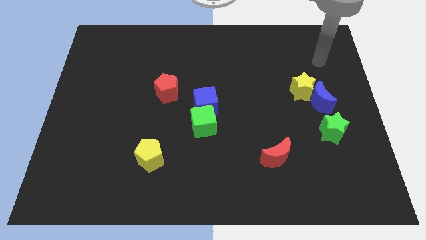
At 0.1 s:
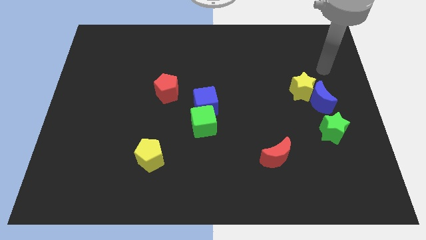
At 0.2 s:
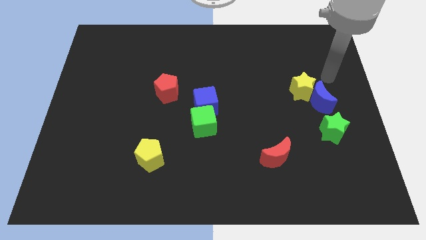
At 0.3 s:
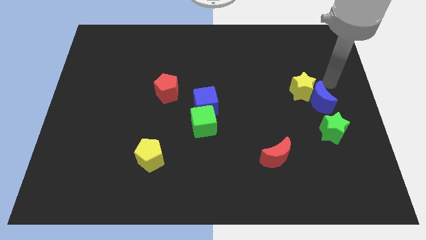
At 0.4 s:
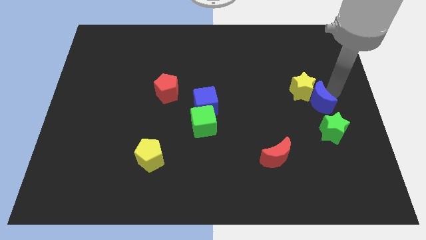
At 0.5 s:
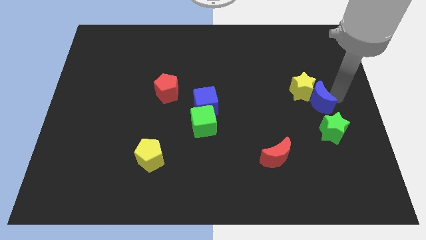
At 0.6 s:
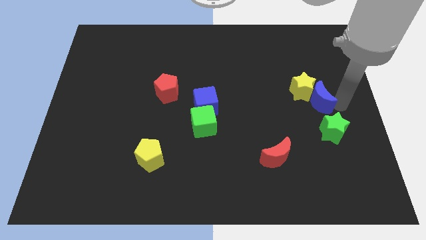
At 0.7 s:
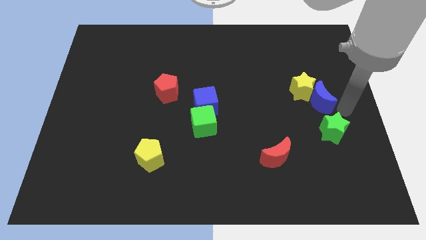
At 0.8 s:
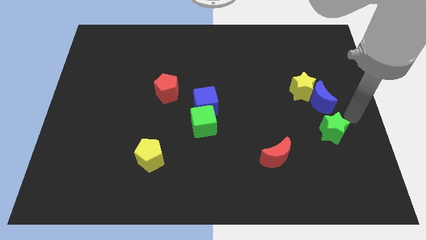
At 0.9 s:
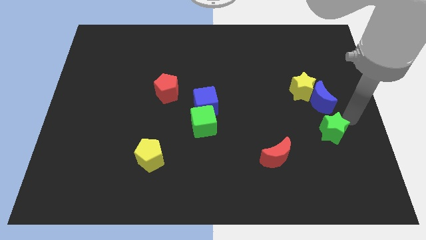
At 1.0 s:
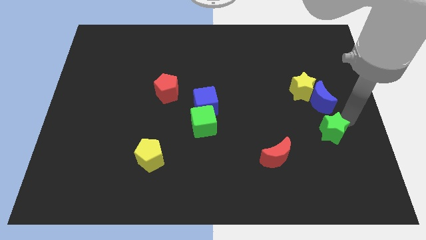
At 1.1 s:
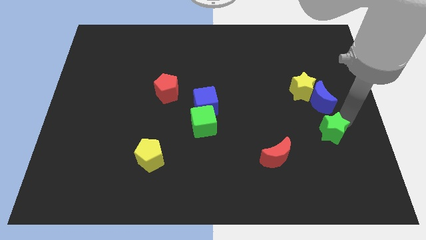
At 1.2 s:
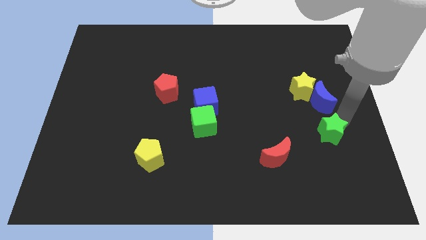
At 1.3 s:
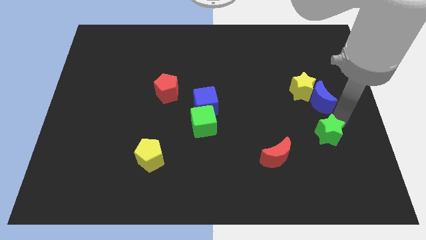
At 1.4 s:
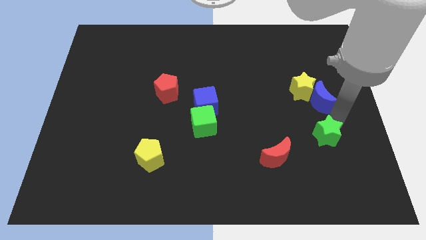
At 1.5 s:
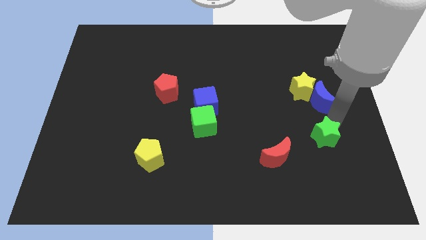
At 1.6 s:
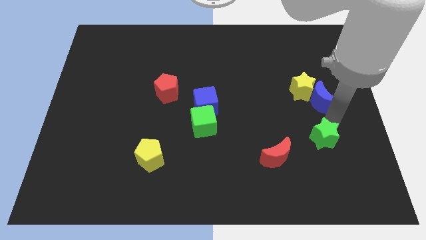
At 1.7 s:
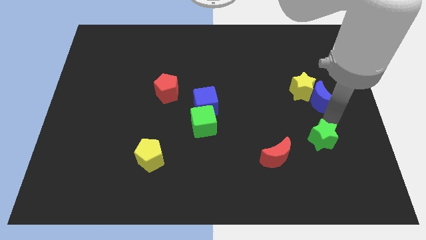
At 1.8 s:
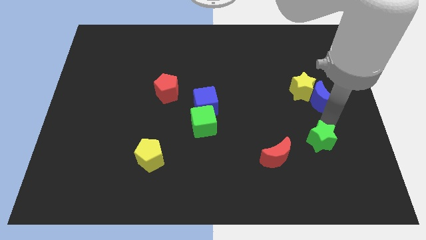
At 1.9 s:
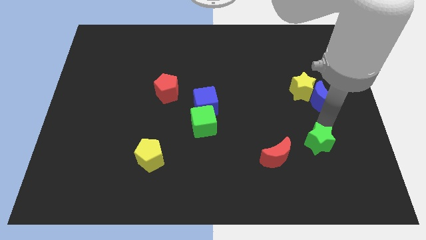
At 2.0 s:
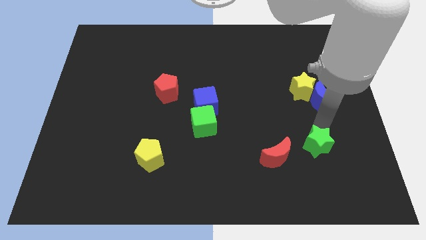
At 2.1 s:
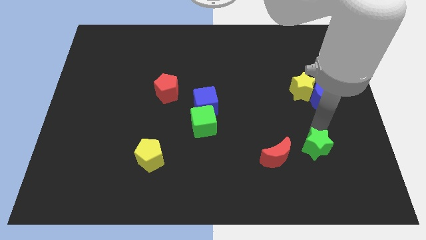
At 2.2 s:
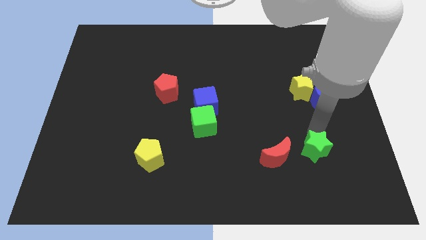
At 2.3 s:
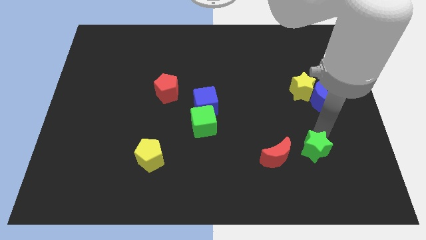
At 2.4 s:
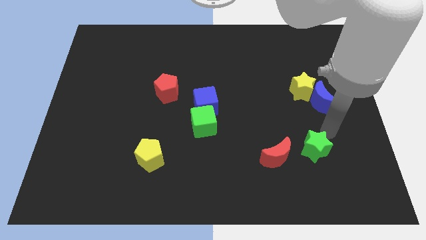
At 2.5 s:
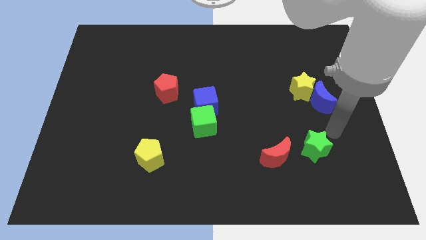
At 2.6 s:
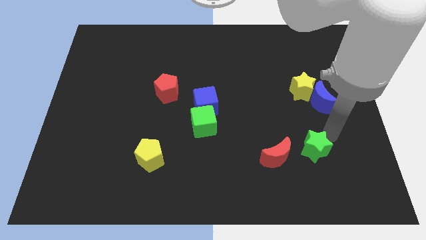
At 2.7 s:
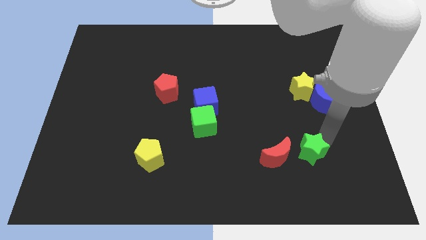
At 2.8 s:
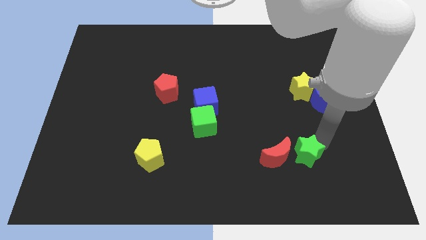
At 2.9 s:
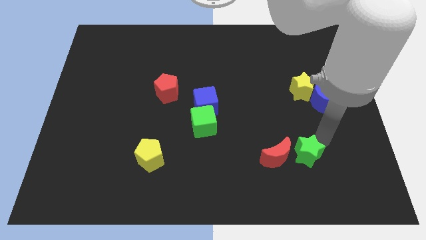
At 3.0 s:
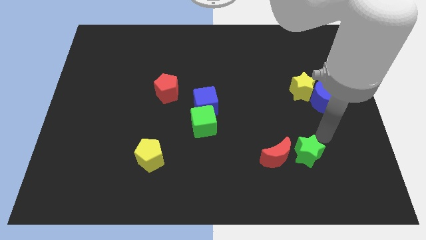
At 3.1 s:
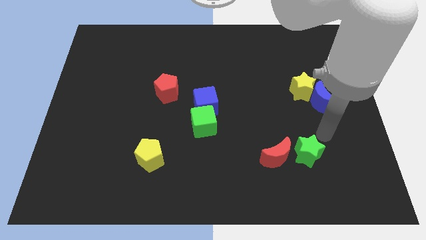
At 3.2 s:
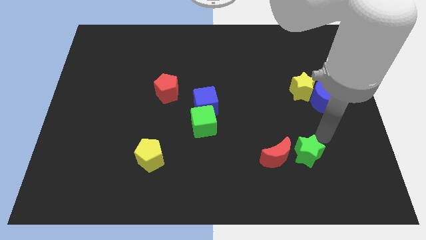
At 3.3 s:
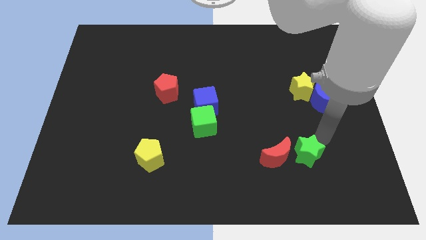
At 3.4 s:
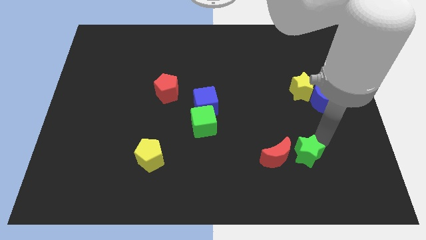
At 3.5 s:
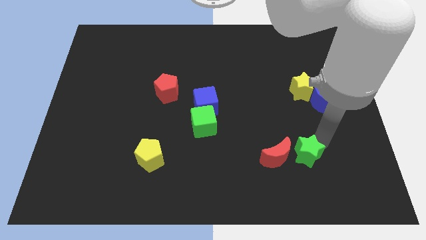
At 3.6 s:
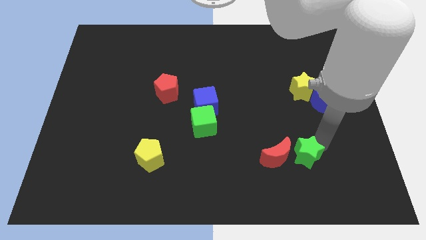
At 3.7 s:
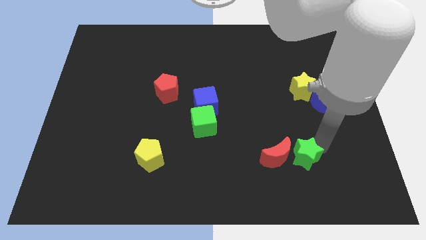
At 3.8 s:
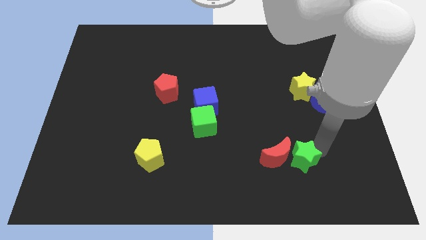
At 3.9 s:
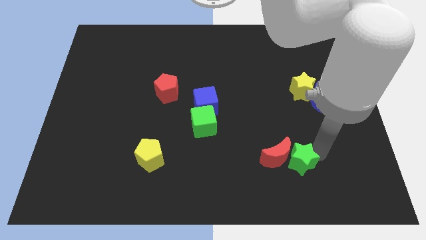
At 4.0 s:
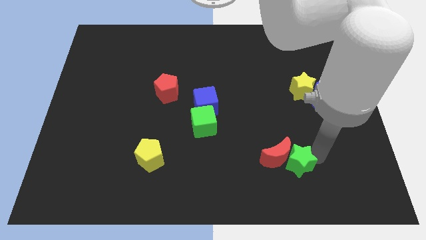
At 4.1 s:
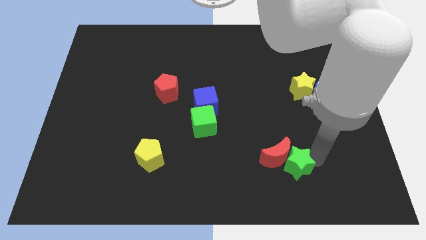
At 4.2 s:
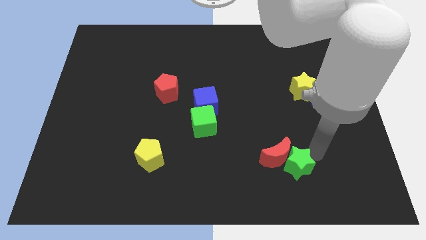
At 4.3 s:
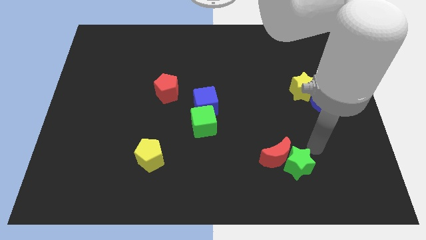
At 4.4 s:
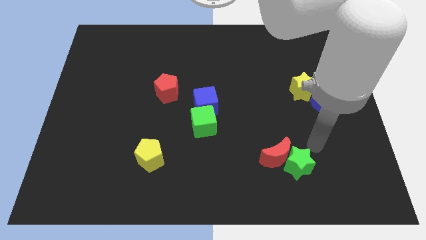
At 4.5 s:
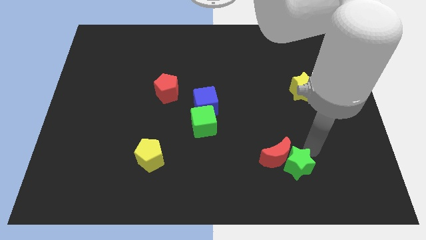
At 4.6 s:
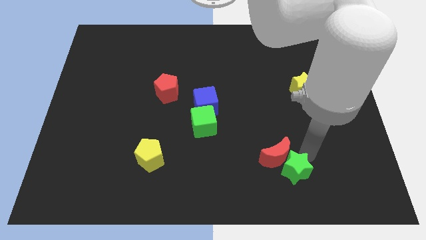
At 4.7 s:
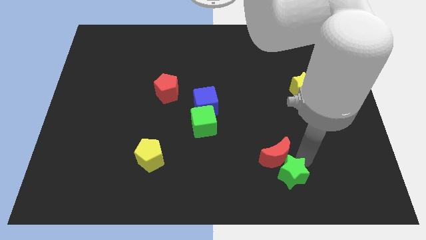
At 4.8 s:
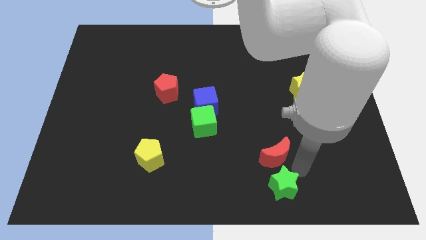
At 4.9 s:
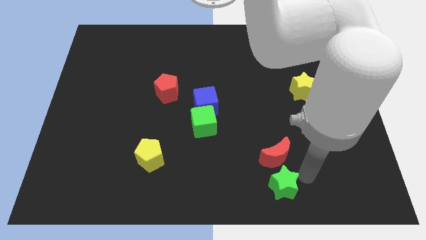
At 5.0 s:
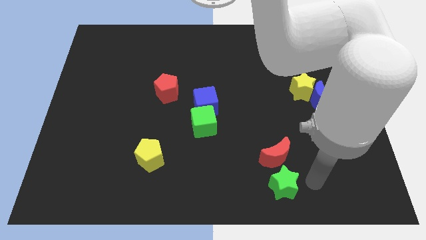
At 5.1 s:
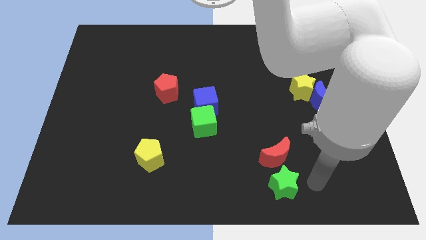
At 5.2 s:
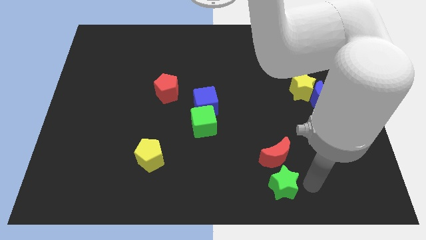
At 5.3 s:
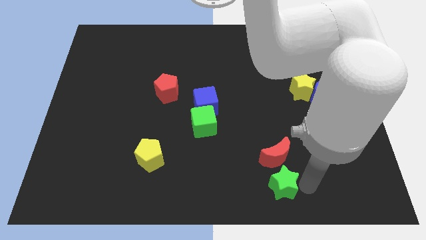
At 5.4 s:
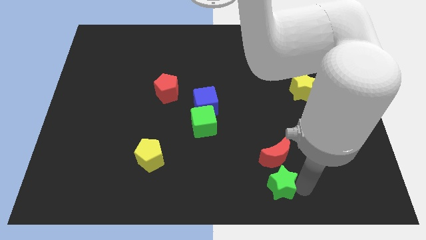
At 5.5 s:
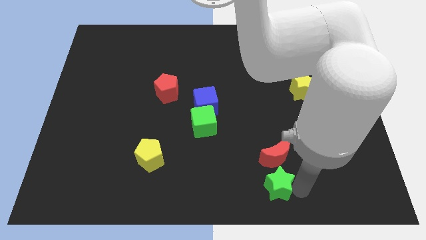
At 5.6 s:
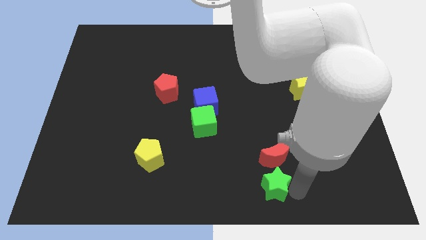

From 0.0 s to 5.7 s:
move the green star to the bottom

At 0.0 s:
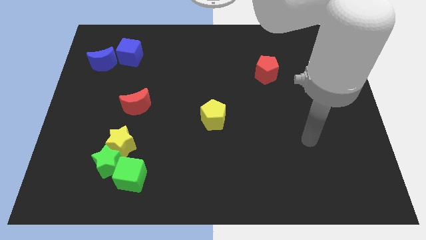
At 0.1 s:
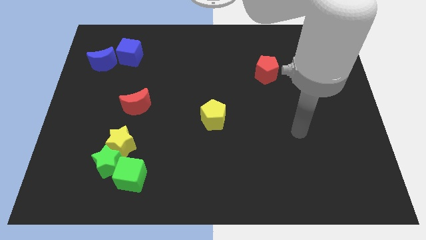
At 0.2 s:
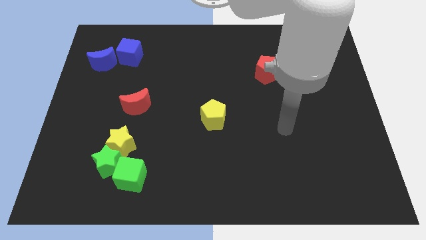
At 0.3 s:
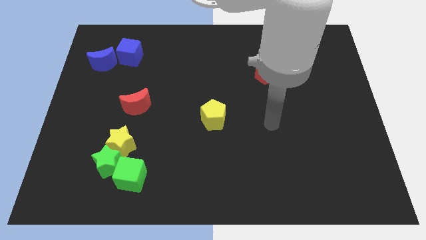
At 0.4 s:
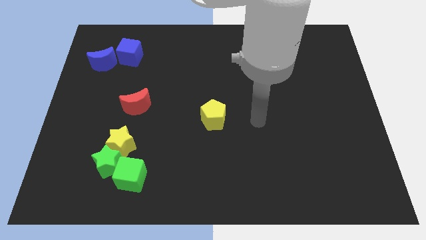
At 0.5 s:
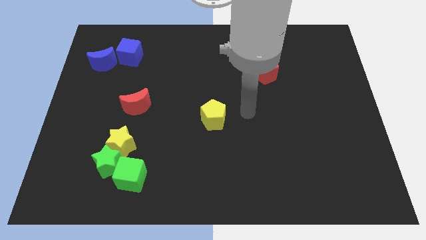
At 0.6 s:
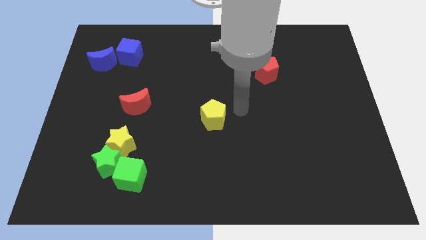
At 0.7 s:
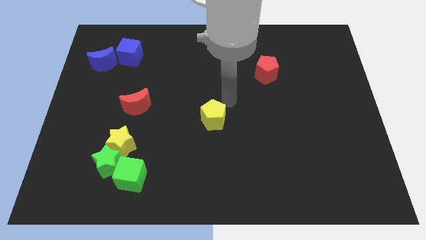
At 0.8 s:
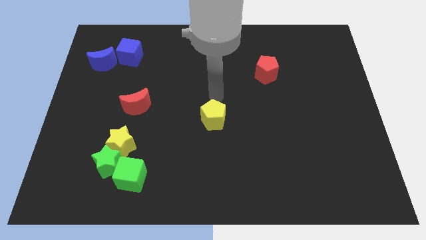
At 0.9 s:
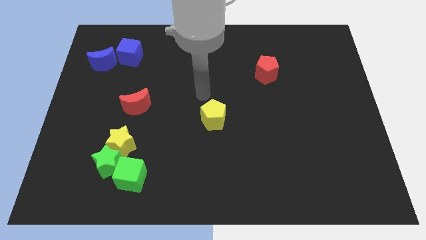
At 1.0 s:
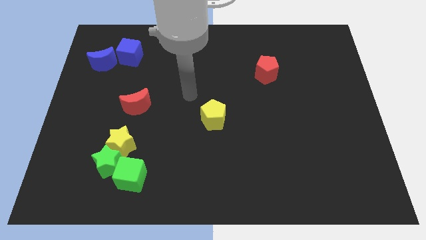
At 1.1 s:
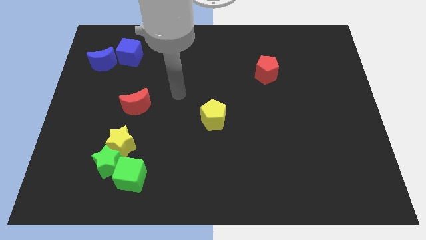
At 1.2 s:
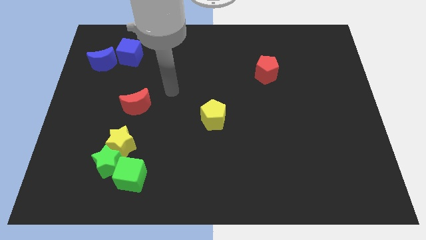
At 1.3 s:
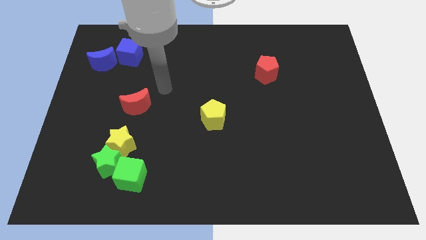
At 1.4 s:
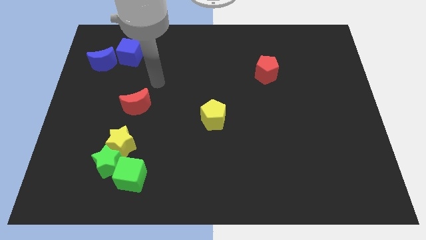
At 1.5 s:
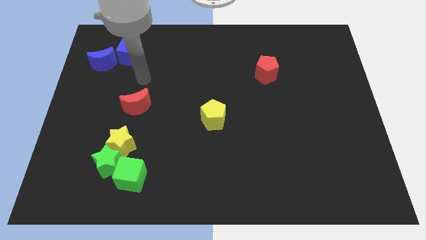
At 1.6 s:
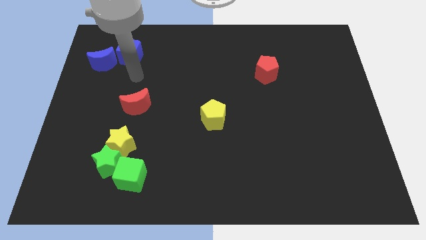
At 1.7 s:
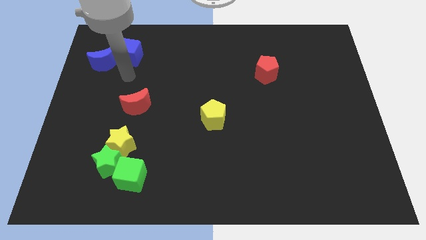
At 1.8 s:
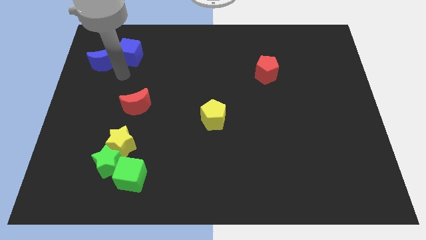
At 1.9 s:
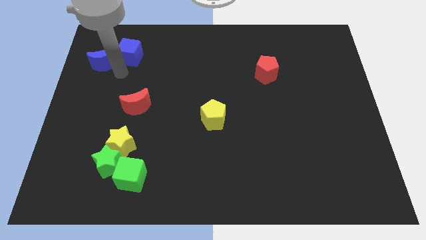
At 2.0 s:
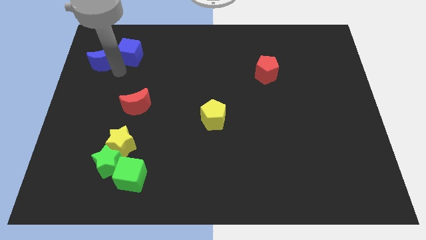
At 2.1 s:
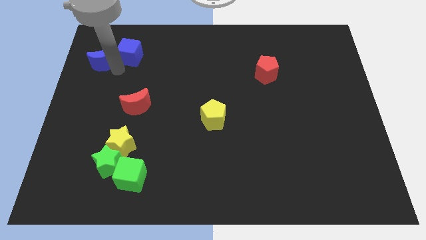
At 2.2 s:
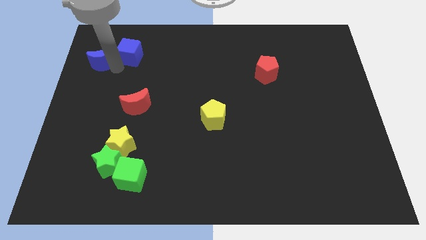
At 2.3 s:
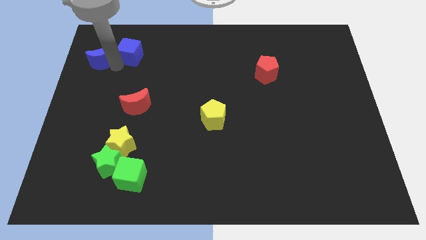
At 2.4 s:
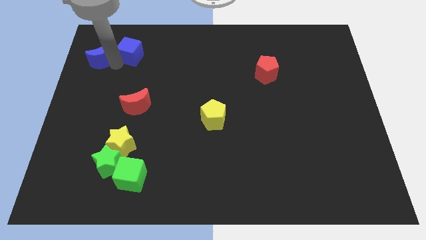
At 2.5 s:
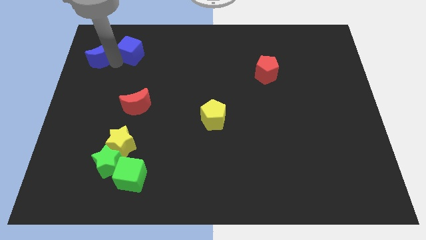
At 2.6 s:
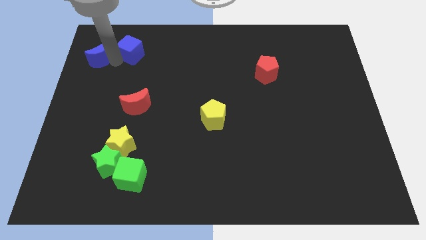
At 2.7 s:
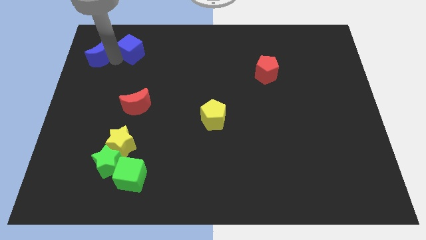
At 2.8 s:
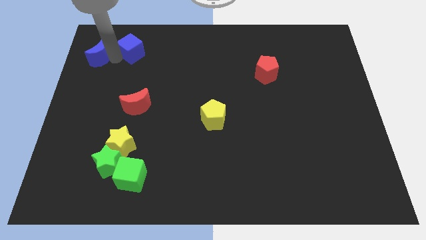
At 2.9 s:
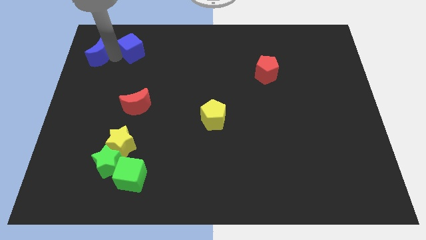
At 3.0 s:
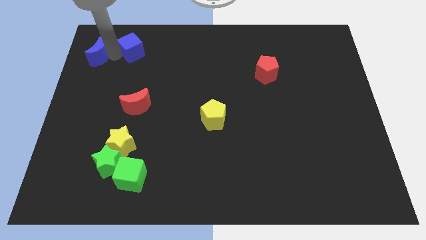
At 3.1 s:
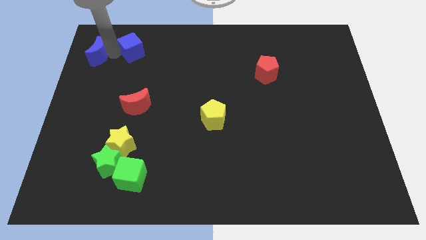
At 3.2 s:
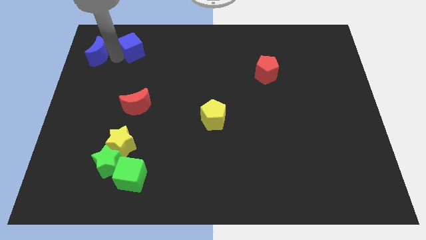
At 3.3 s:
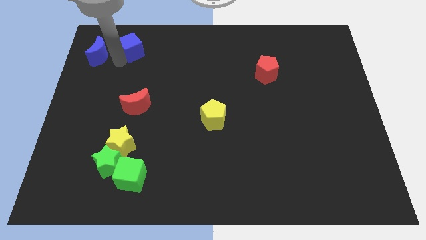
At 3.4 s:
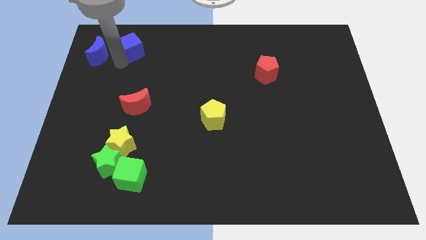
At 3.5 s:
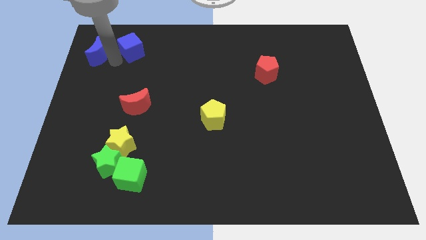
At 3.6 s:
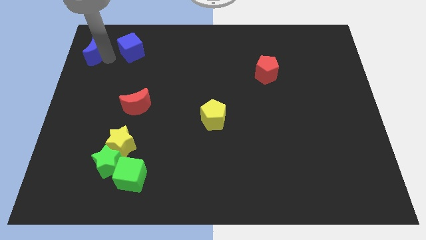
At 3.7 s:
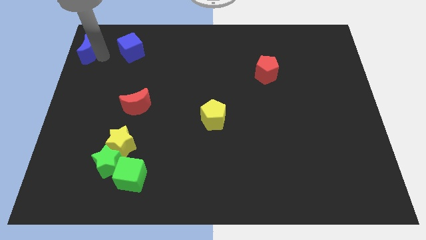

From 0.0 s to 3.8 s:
move the blue moon to the top left of the board
